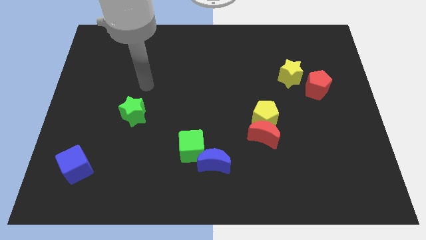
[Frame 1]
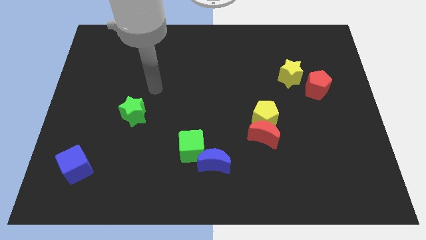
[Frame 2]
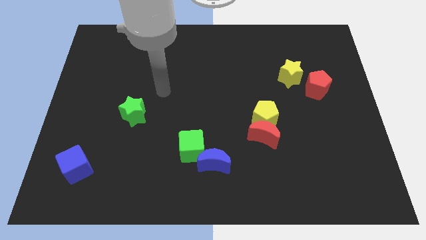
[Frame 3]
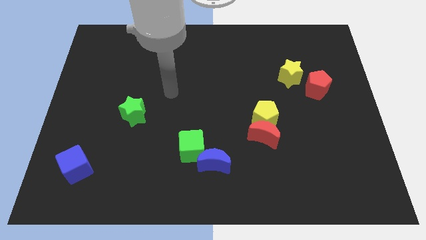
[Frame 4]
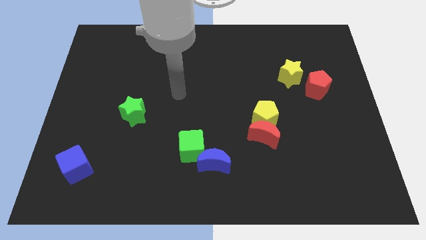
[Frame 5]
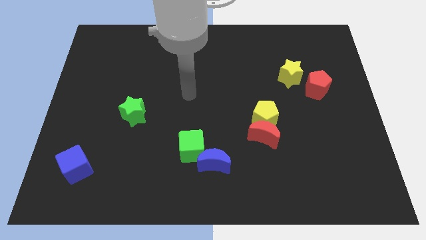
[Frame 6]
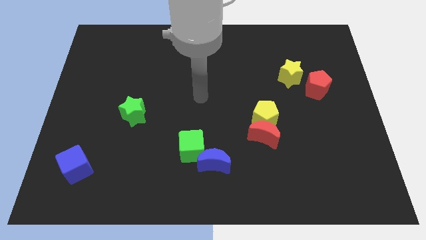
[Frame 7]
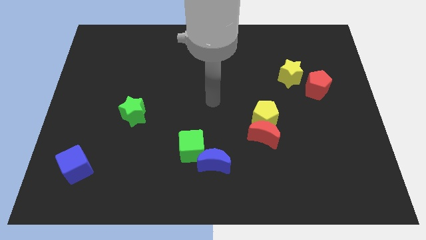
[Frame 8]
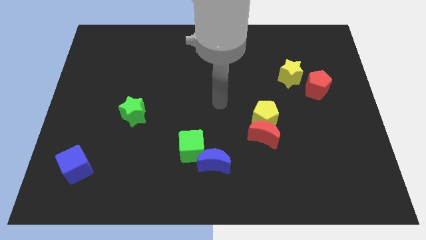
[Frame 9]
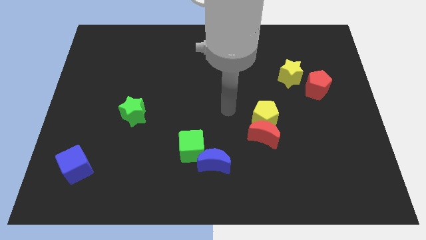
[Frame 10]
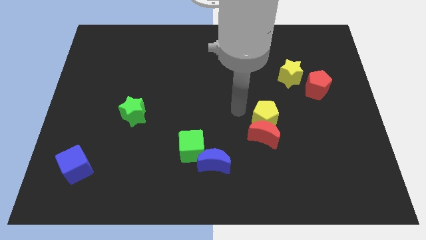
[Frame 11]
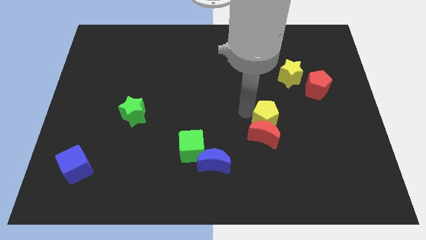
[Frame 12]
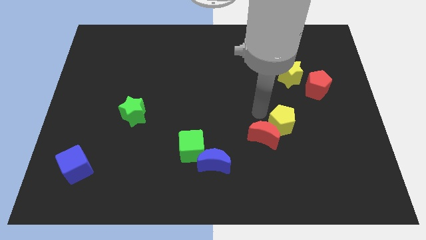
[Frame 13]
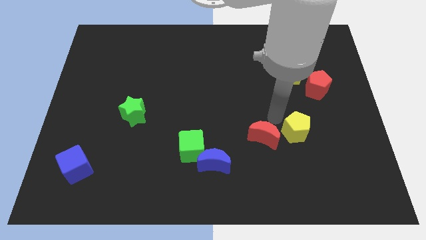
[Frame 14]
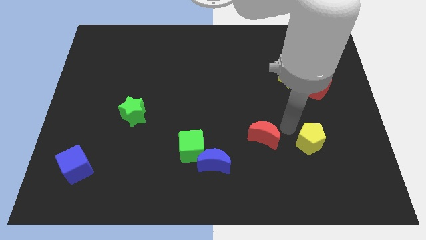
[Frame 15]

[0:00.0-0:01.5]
pull the red moon apart from the yellow pentagon

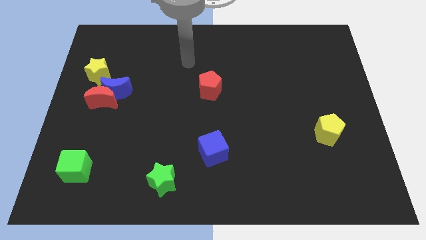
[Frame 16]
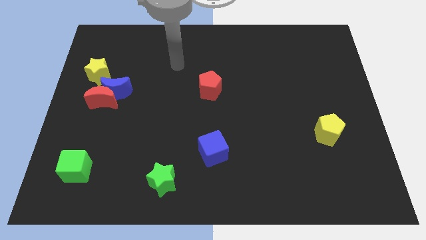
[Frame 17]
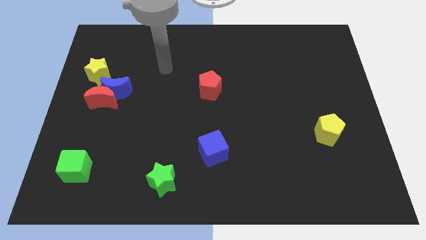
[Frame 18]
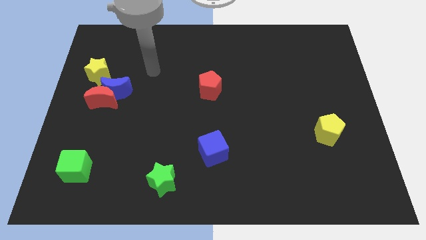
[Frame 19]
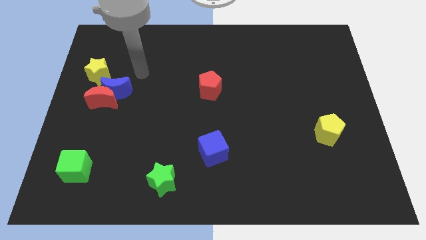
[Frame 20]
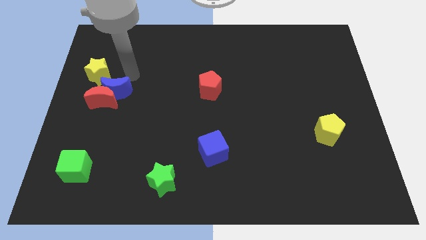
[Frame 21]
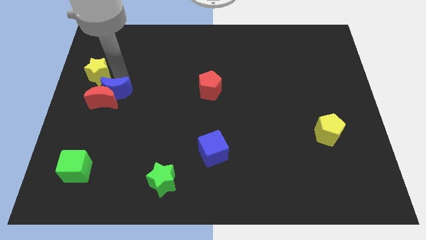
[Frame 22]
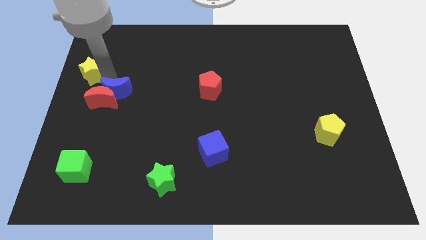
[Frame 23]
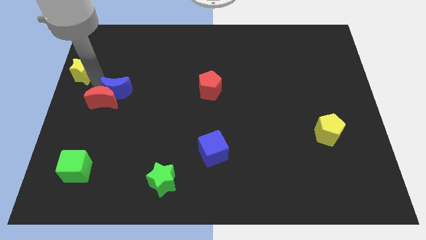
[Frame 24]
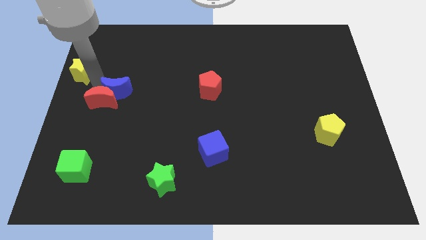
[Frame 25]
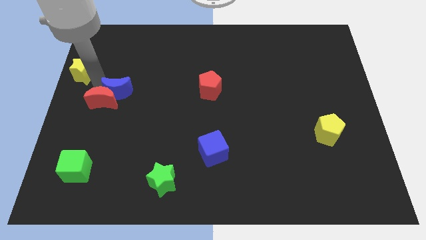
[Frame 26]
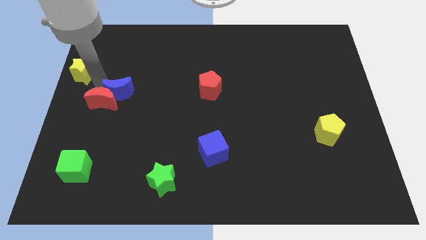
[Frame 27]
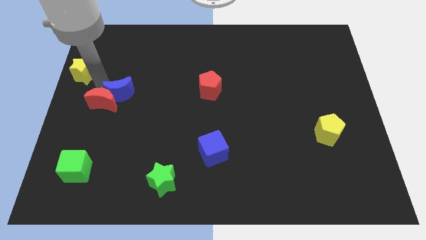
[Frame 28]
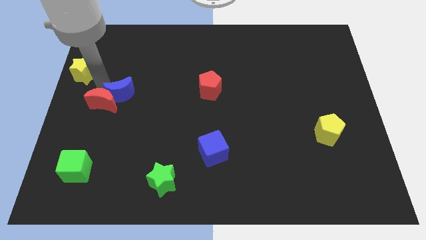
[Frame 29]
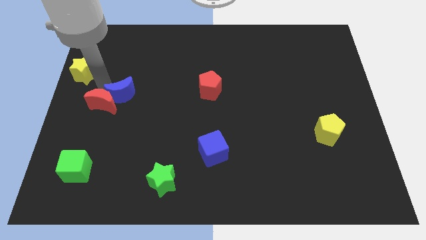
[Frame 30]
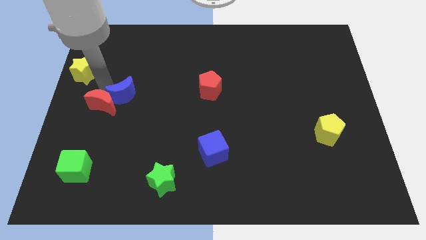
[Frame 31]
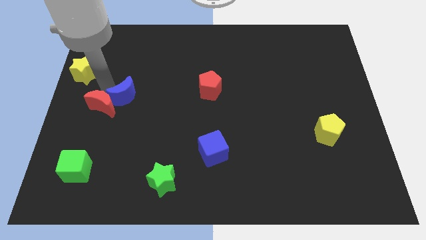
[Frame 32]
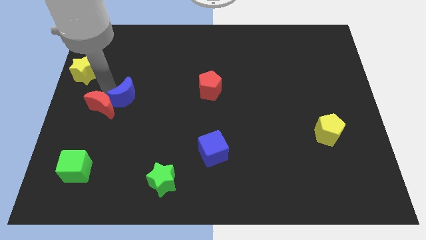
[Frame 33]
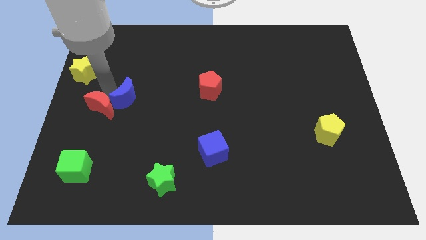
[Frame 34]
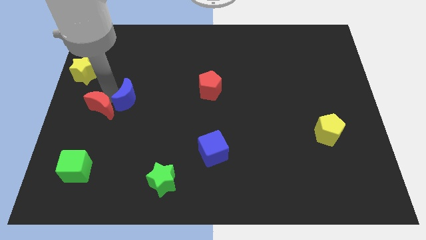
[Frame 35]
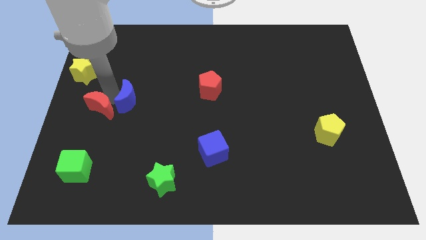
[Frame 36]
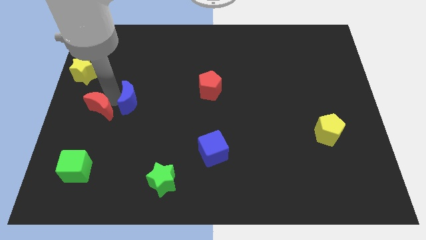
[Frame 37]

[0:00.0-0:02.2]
move the blue moon away from the red moon and yellow star

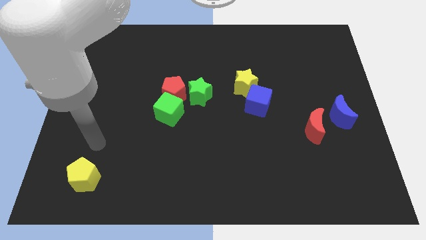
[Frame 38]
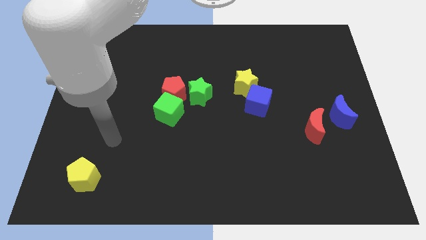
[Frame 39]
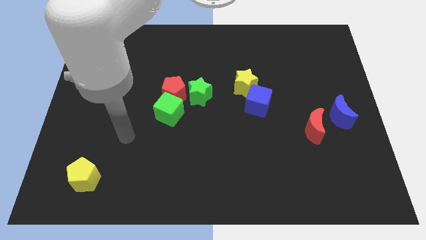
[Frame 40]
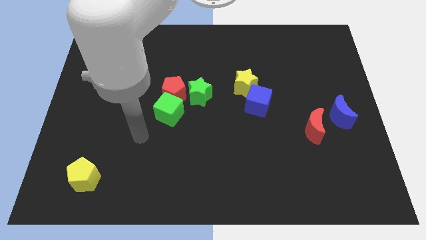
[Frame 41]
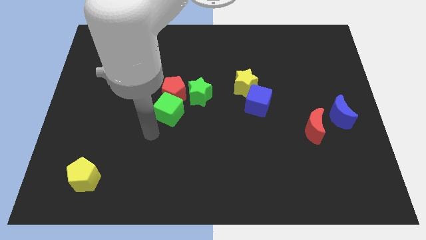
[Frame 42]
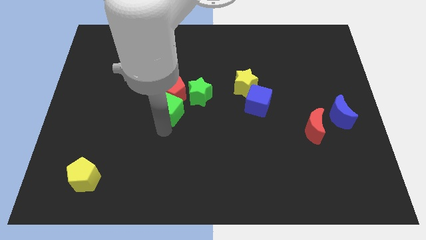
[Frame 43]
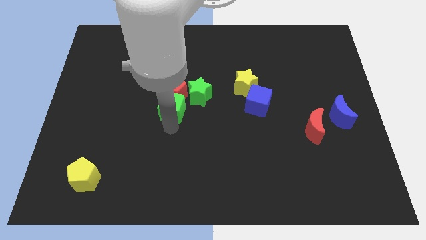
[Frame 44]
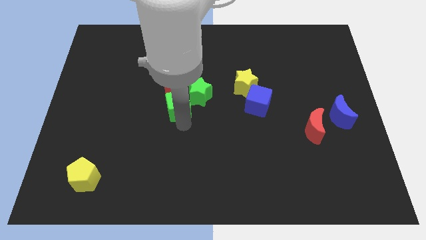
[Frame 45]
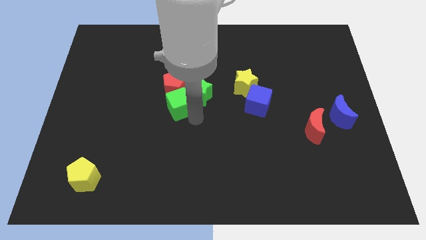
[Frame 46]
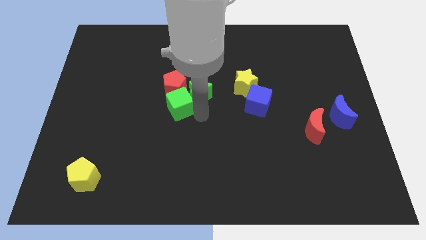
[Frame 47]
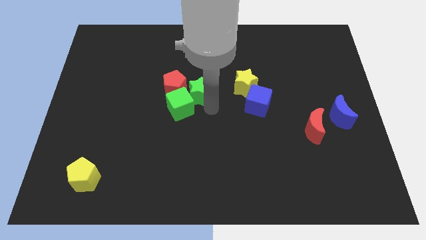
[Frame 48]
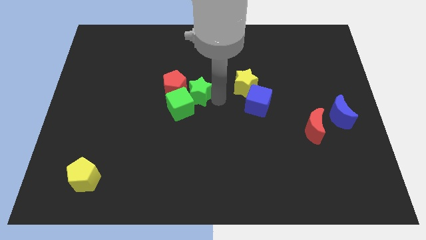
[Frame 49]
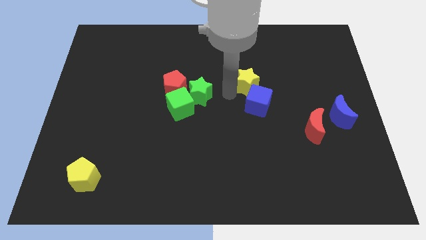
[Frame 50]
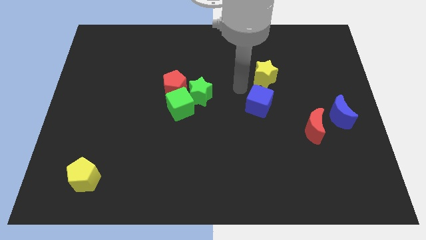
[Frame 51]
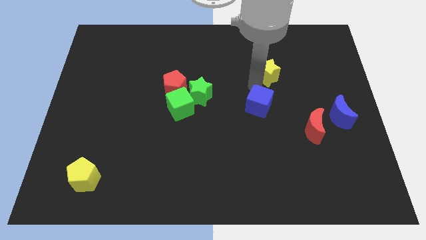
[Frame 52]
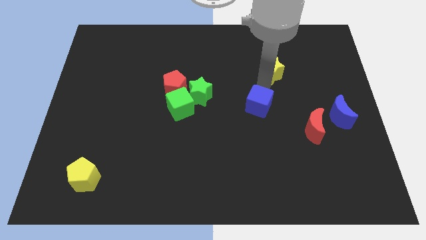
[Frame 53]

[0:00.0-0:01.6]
pull the blue cube apart from the yellow star

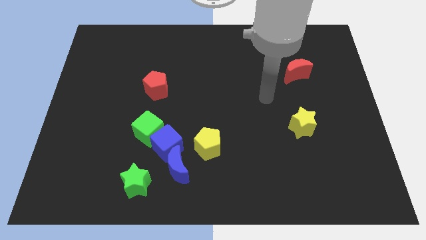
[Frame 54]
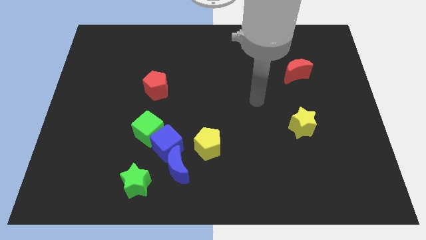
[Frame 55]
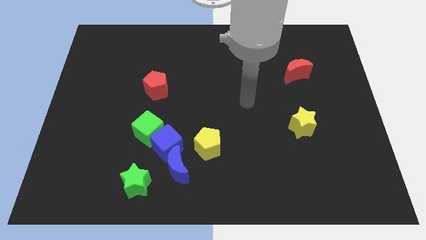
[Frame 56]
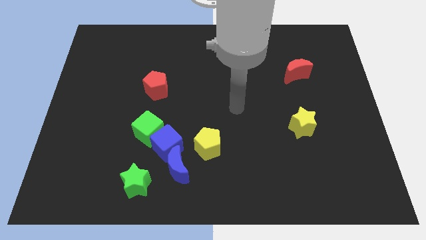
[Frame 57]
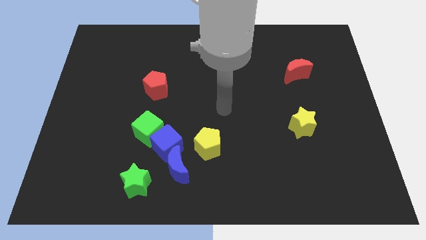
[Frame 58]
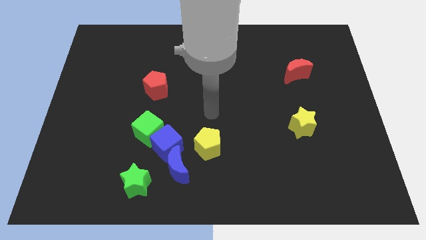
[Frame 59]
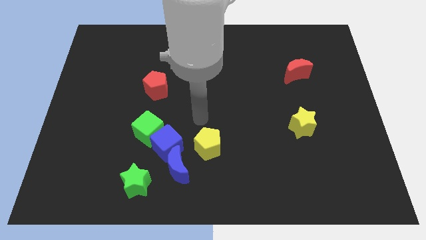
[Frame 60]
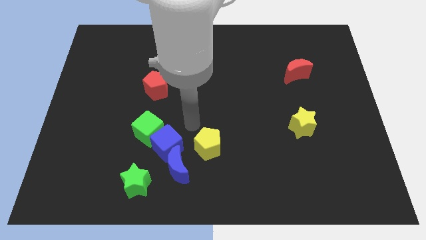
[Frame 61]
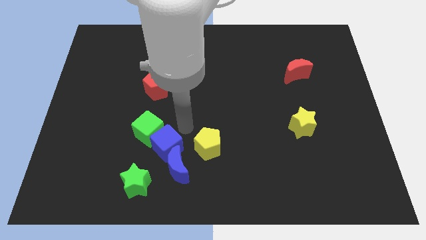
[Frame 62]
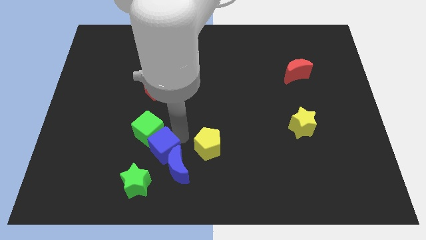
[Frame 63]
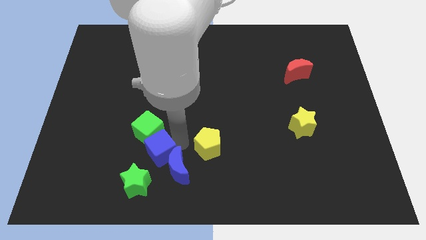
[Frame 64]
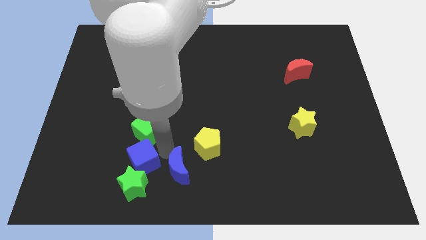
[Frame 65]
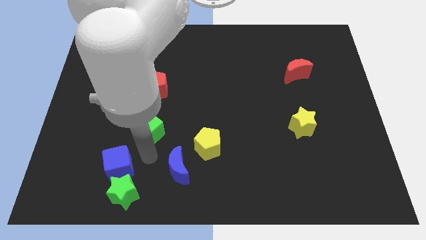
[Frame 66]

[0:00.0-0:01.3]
move the green cube away from the blue cube

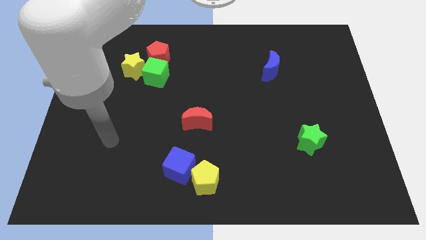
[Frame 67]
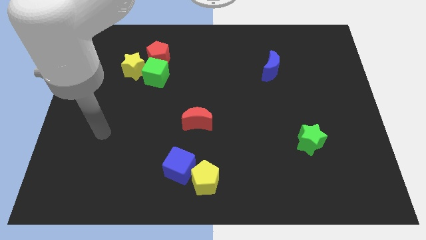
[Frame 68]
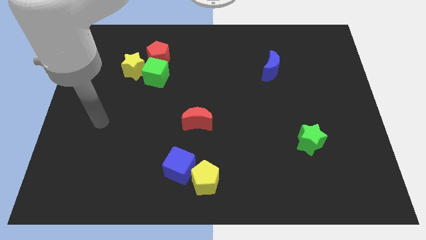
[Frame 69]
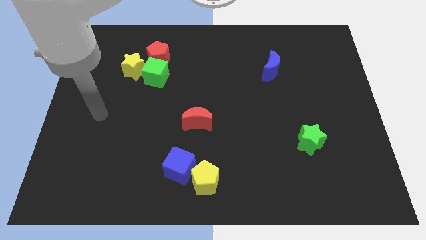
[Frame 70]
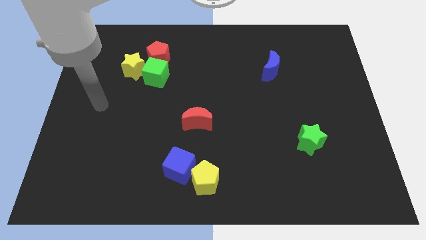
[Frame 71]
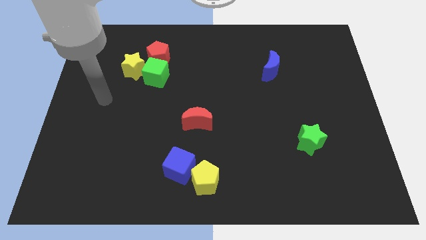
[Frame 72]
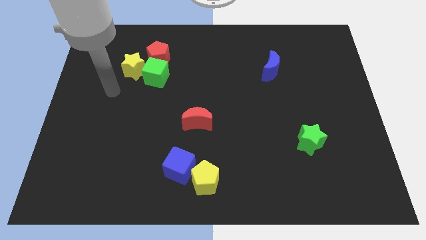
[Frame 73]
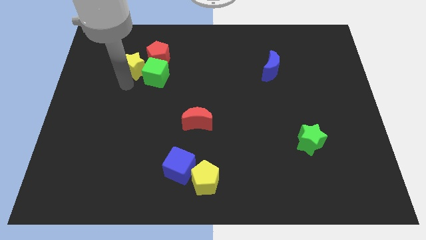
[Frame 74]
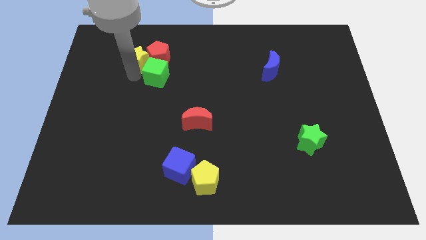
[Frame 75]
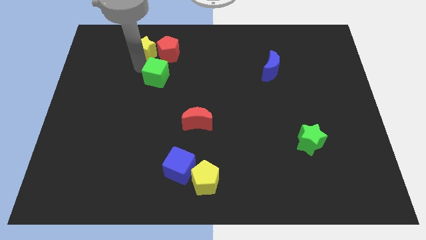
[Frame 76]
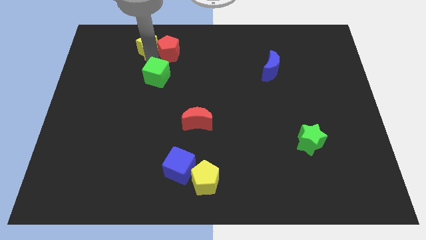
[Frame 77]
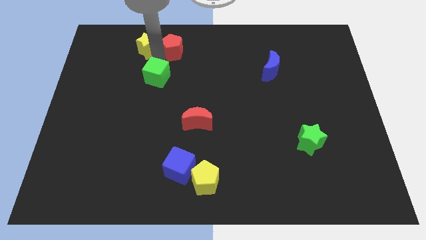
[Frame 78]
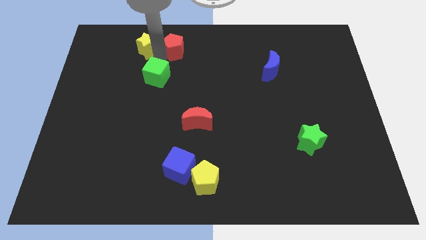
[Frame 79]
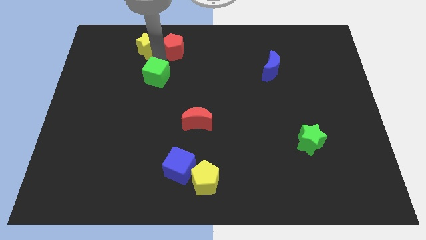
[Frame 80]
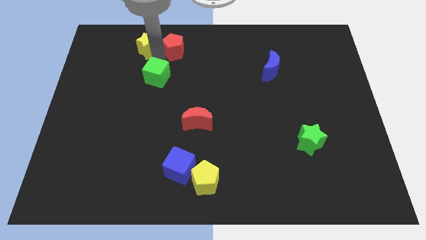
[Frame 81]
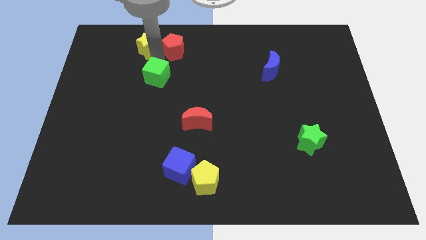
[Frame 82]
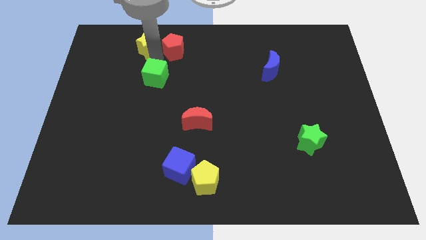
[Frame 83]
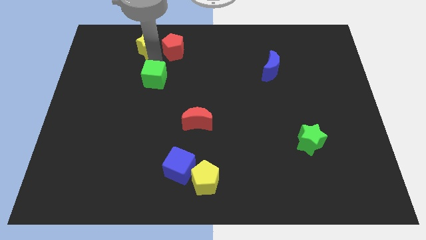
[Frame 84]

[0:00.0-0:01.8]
move the green cube away from the yellow star and red pentagon

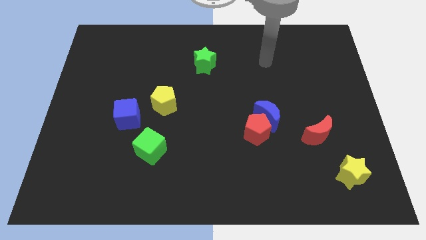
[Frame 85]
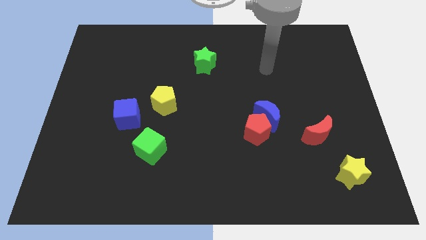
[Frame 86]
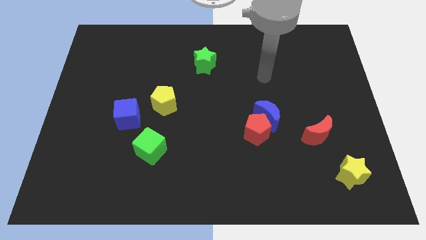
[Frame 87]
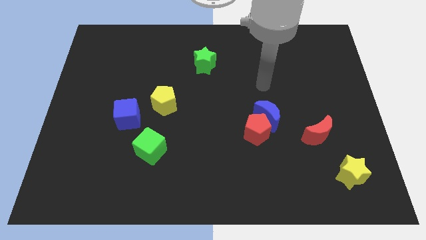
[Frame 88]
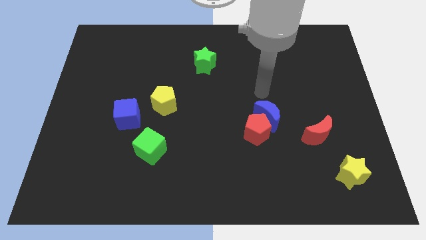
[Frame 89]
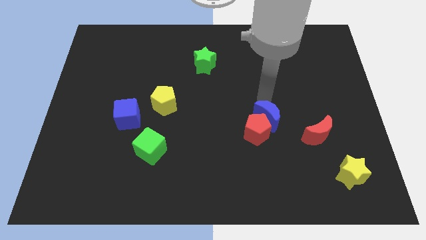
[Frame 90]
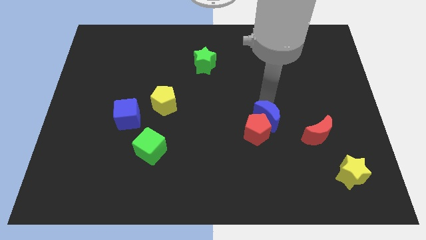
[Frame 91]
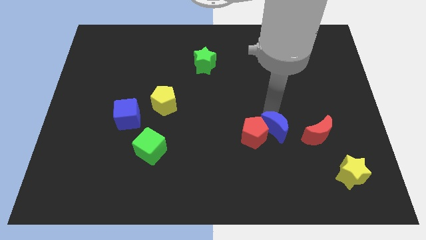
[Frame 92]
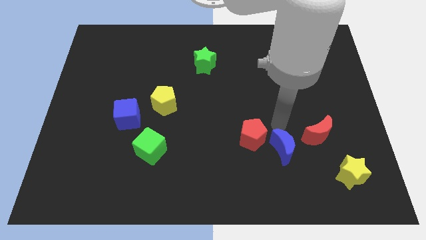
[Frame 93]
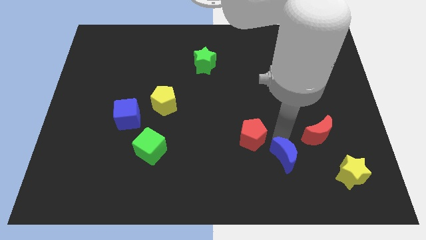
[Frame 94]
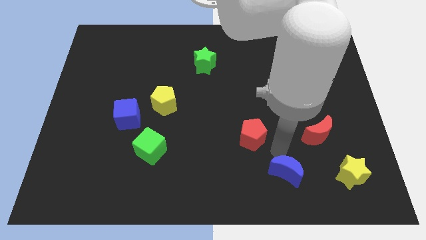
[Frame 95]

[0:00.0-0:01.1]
separate the red pentagon from the blue moon
